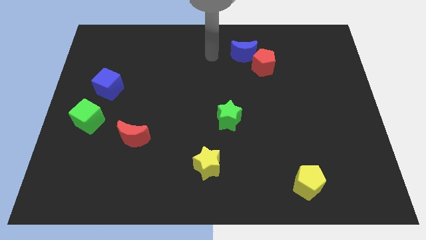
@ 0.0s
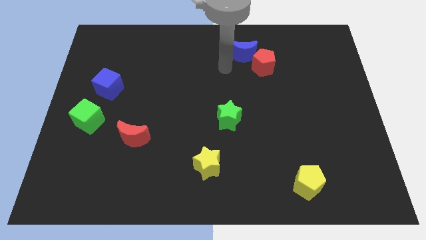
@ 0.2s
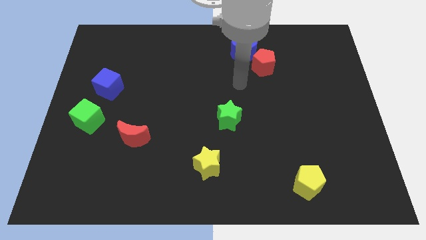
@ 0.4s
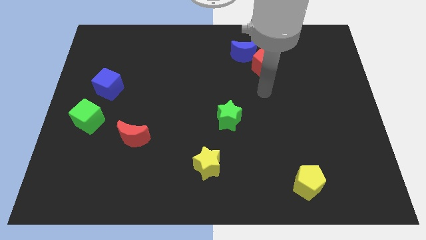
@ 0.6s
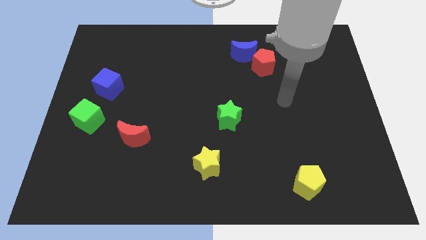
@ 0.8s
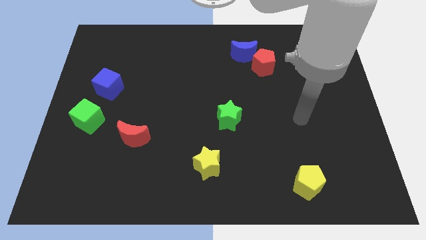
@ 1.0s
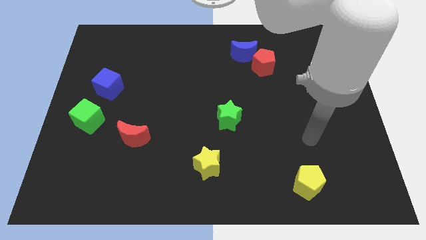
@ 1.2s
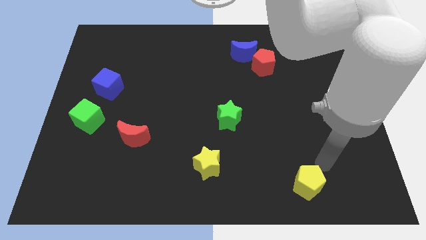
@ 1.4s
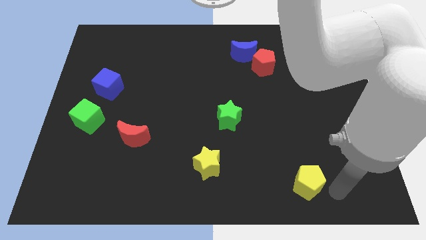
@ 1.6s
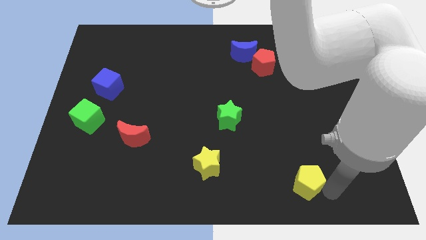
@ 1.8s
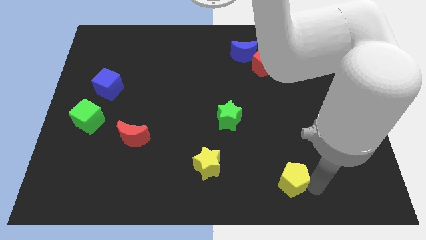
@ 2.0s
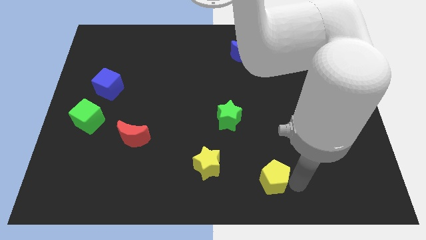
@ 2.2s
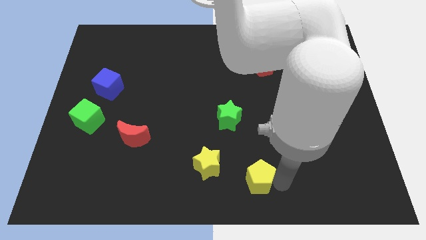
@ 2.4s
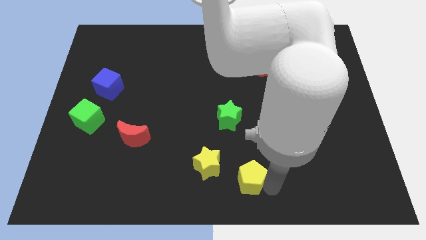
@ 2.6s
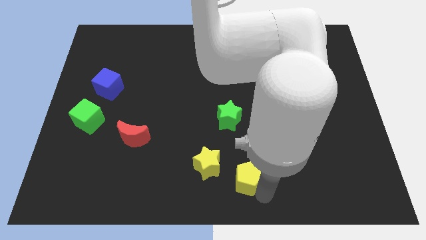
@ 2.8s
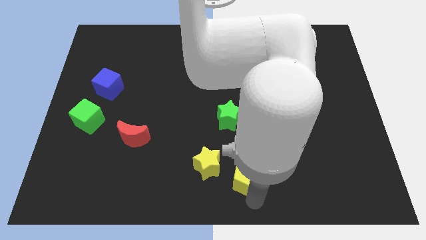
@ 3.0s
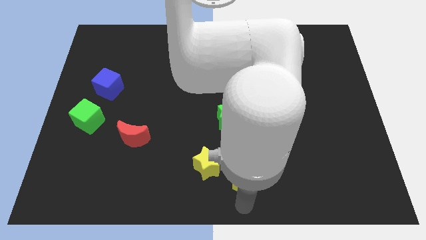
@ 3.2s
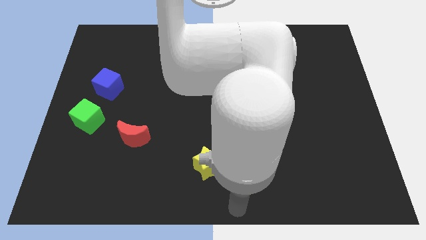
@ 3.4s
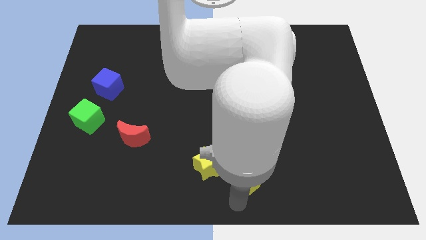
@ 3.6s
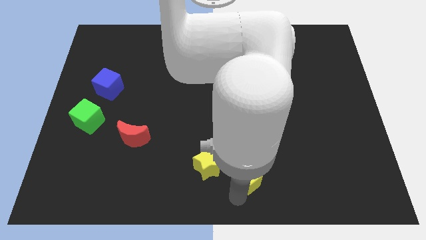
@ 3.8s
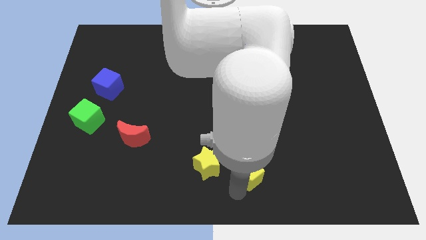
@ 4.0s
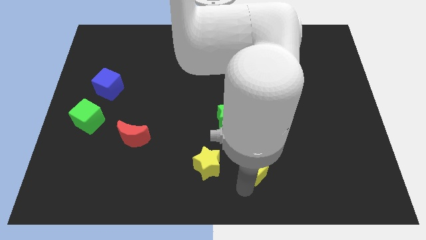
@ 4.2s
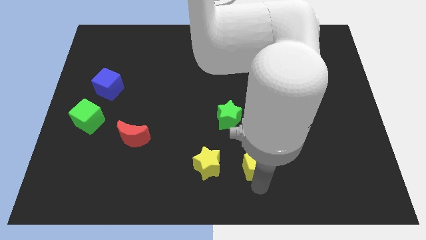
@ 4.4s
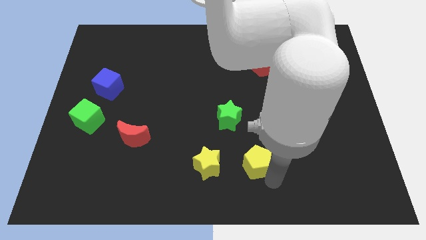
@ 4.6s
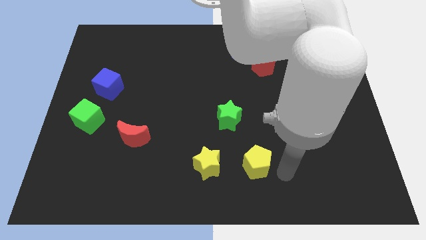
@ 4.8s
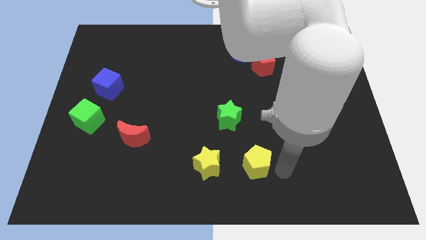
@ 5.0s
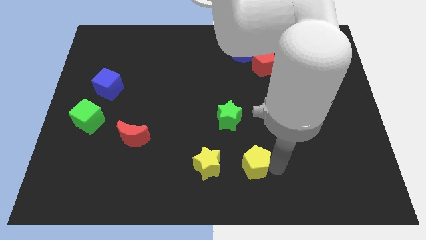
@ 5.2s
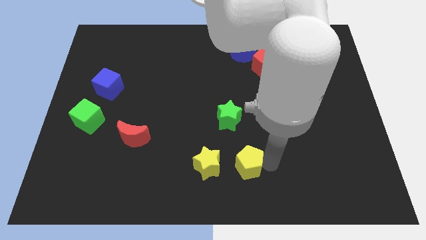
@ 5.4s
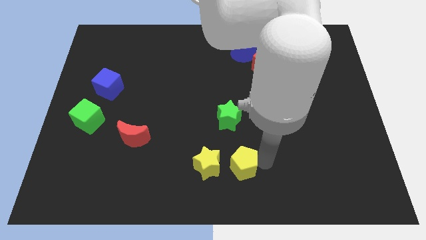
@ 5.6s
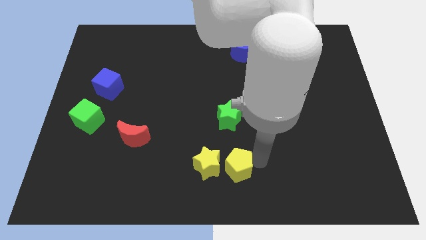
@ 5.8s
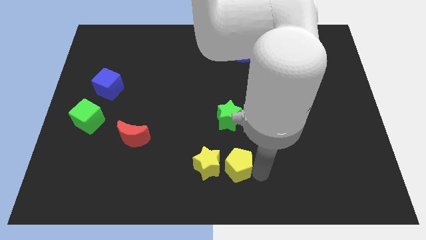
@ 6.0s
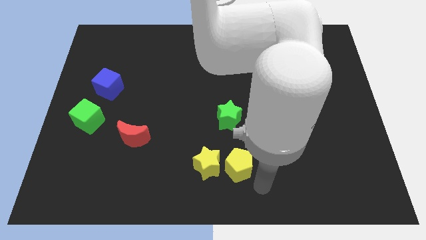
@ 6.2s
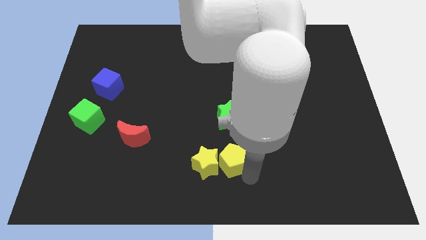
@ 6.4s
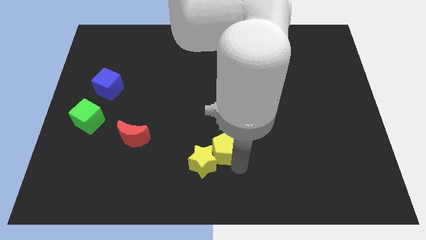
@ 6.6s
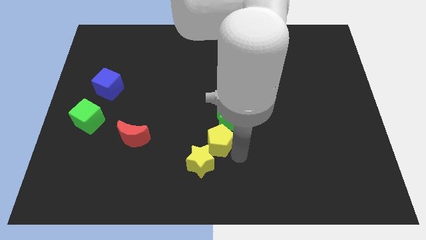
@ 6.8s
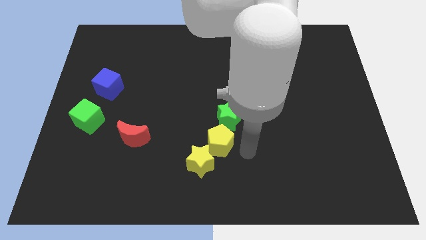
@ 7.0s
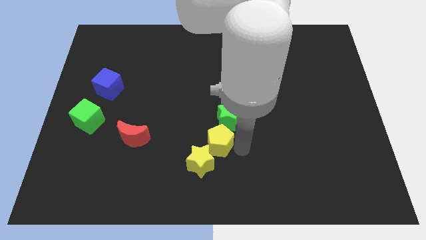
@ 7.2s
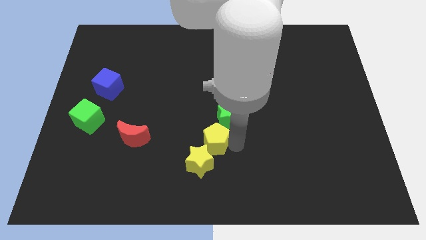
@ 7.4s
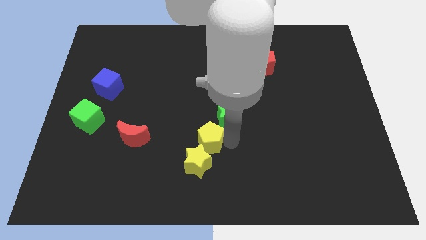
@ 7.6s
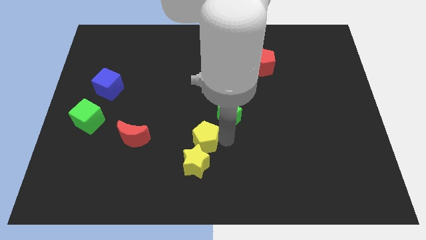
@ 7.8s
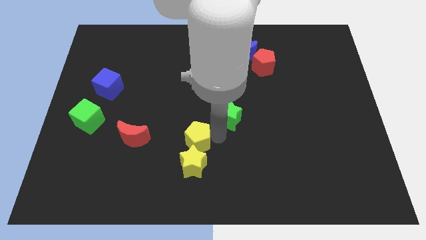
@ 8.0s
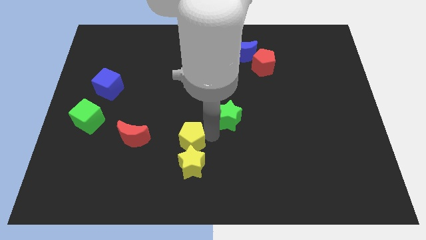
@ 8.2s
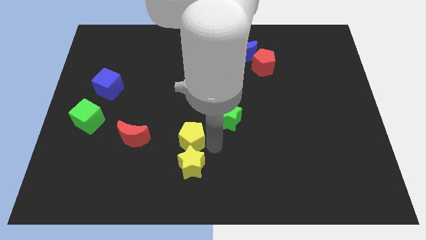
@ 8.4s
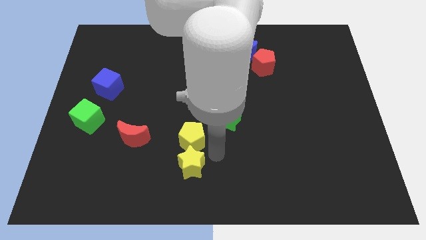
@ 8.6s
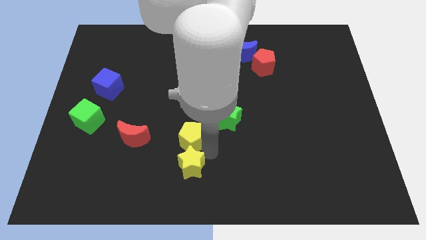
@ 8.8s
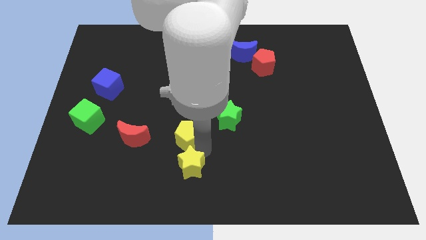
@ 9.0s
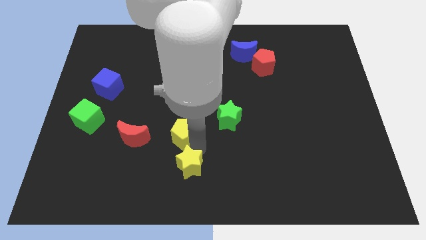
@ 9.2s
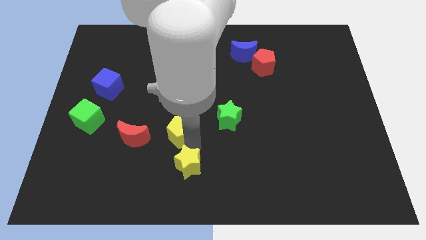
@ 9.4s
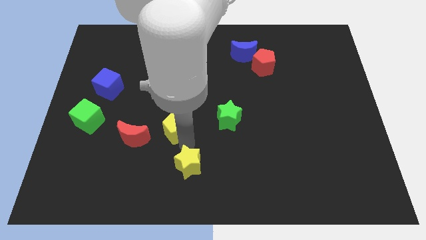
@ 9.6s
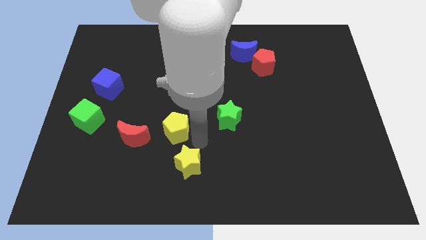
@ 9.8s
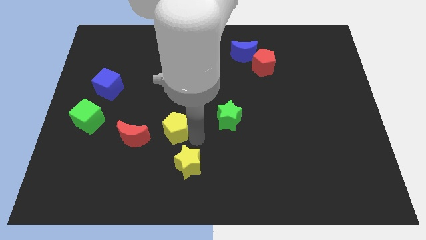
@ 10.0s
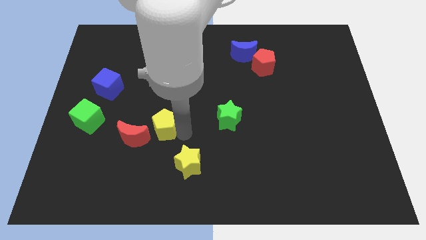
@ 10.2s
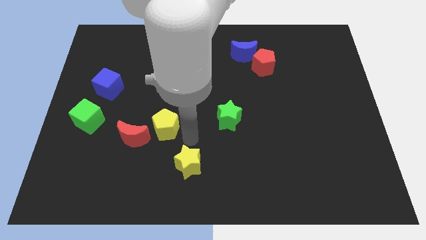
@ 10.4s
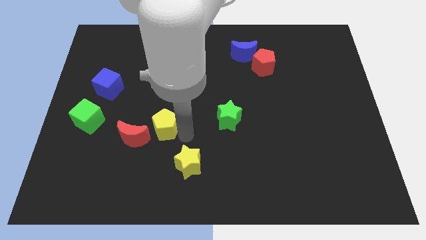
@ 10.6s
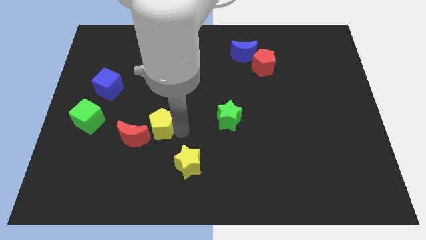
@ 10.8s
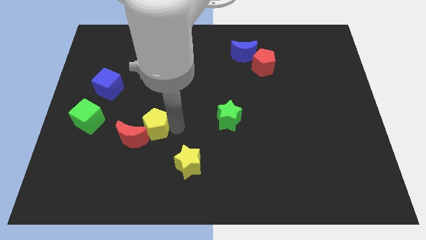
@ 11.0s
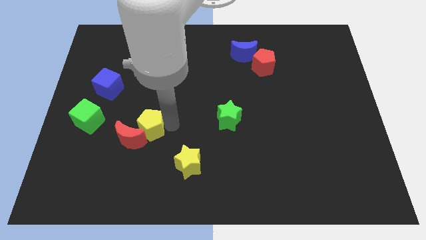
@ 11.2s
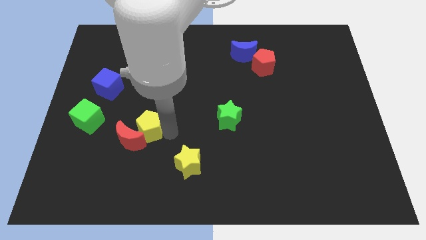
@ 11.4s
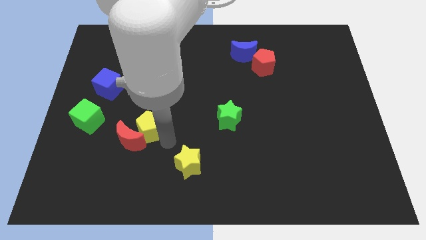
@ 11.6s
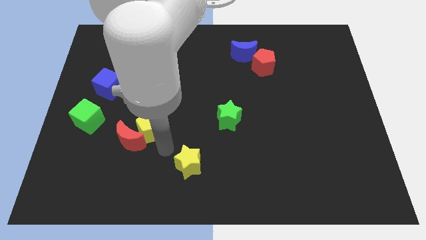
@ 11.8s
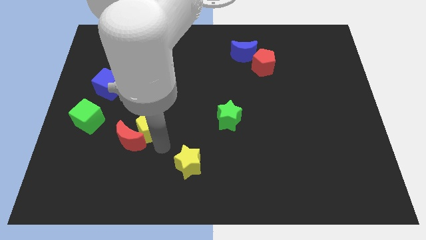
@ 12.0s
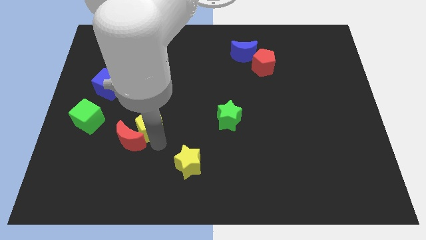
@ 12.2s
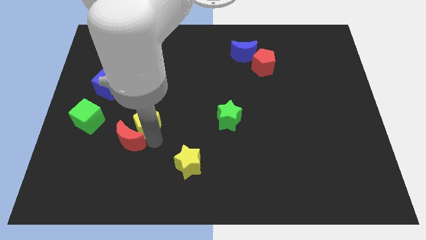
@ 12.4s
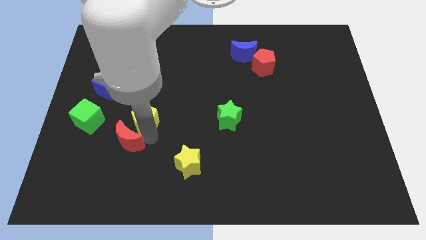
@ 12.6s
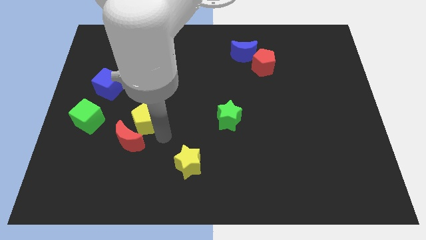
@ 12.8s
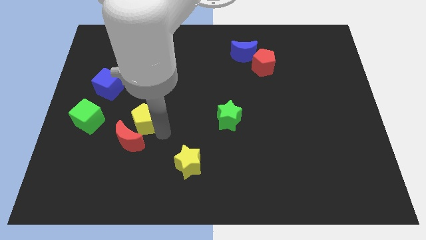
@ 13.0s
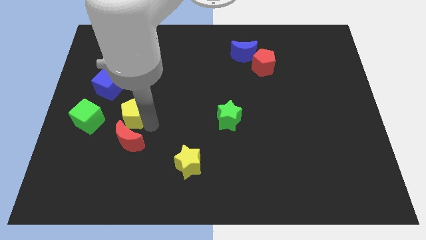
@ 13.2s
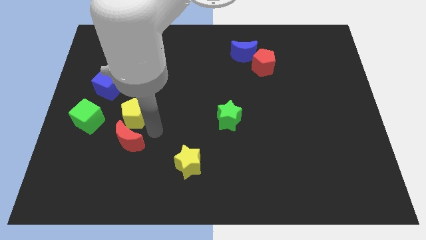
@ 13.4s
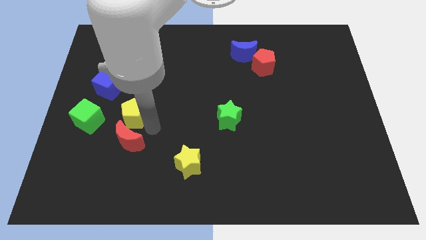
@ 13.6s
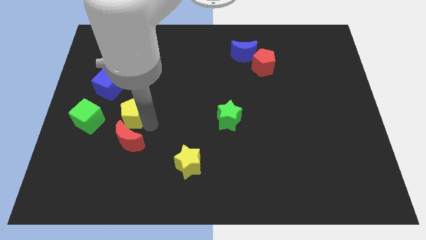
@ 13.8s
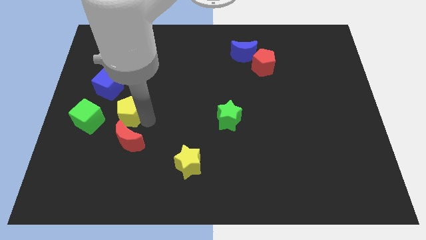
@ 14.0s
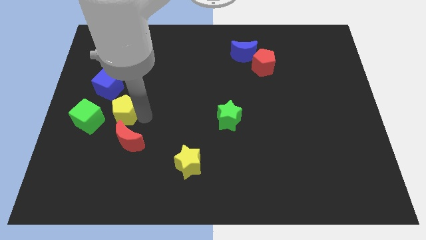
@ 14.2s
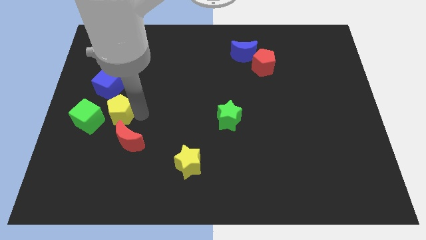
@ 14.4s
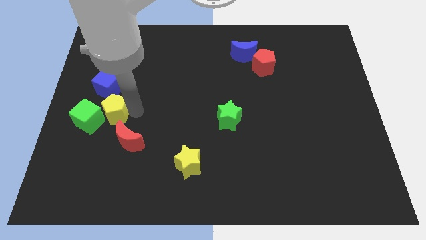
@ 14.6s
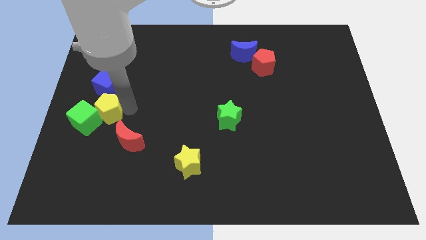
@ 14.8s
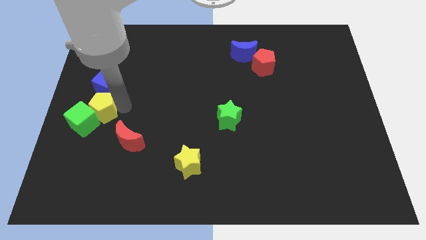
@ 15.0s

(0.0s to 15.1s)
move the yellow pentagon to the left side of the board
